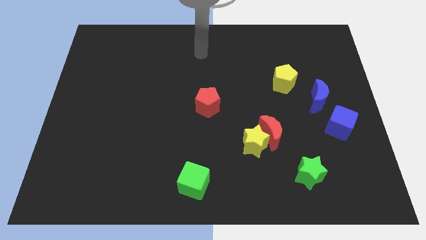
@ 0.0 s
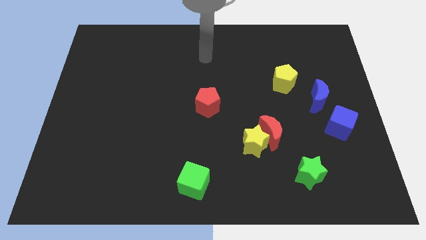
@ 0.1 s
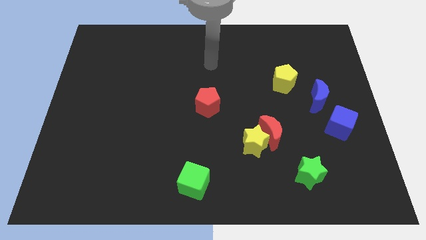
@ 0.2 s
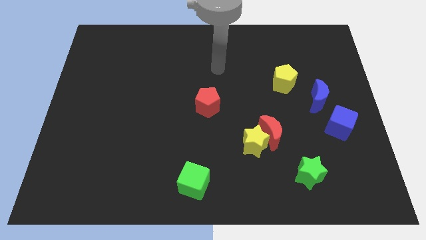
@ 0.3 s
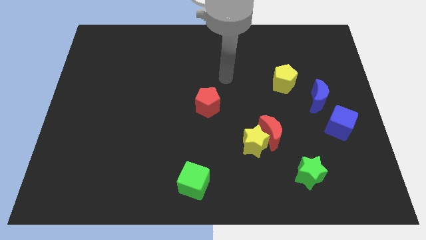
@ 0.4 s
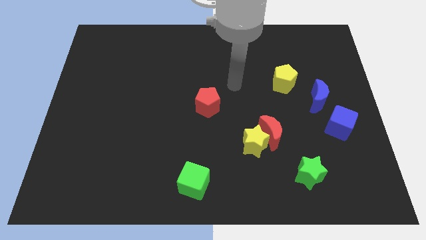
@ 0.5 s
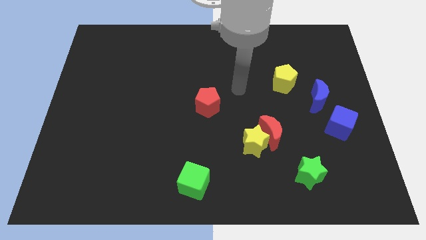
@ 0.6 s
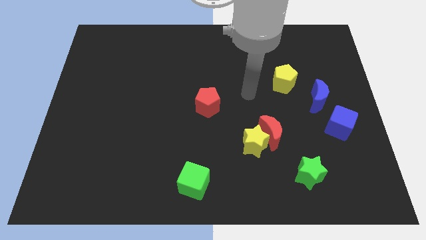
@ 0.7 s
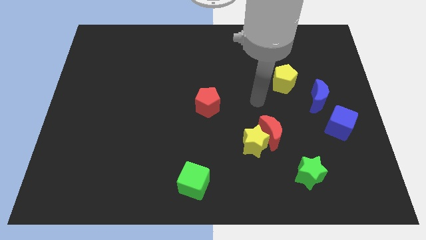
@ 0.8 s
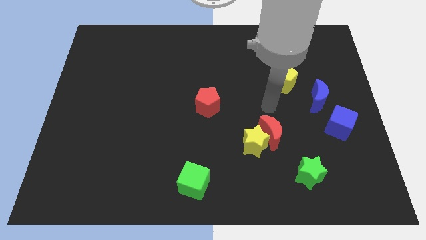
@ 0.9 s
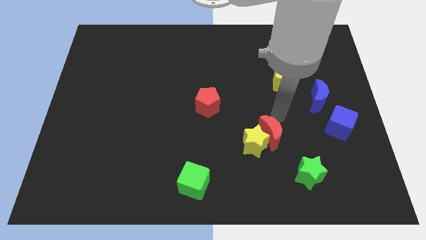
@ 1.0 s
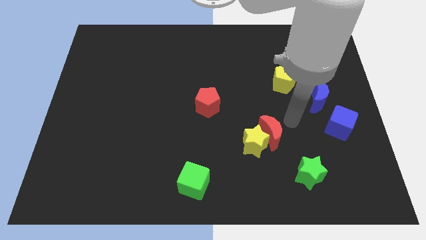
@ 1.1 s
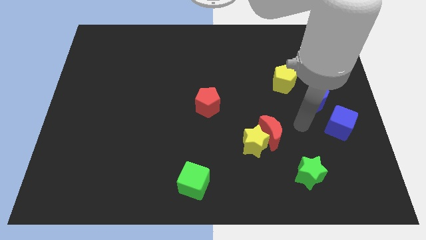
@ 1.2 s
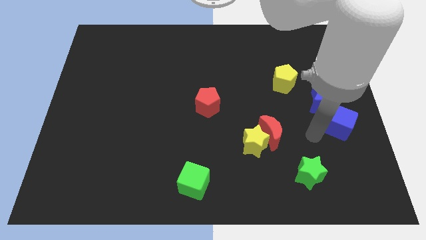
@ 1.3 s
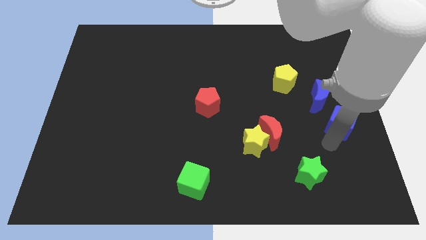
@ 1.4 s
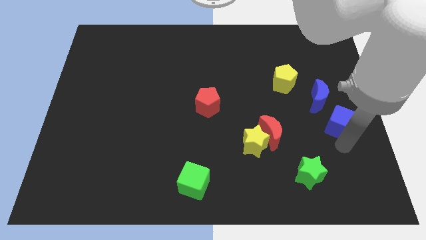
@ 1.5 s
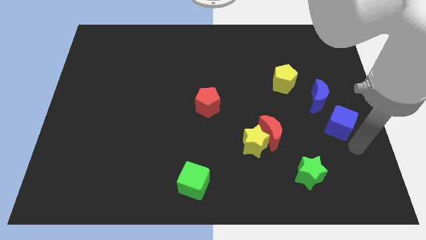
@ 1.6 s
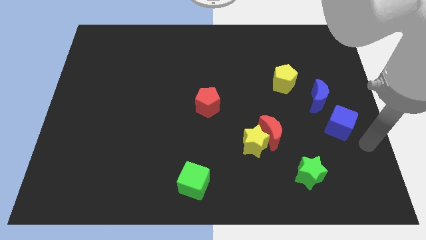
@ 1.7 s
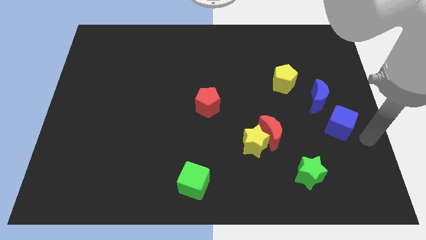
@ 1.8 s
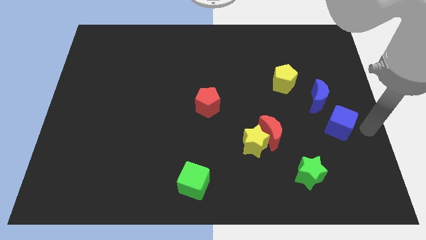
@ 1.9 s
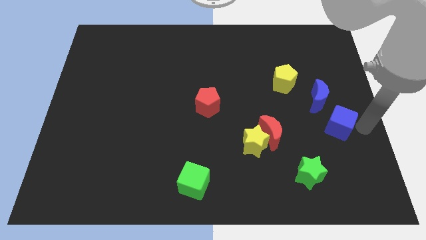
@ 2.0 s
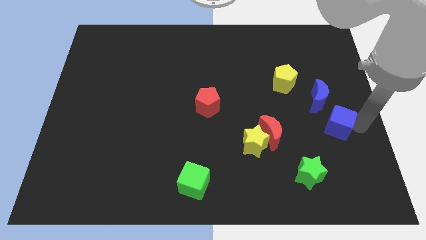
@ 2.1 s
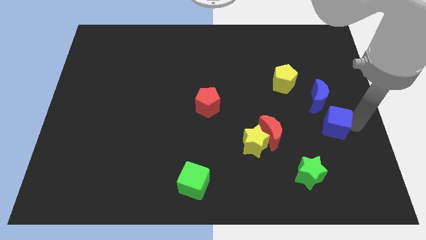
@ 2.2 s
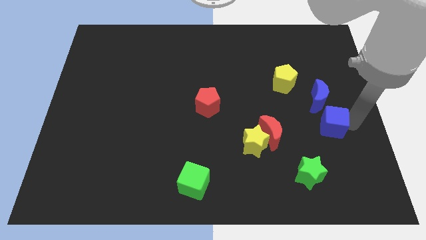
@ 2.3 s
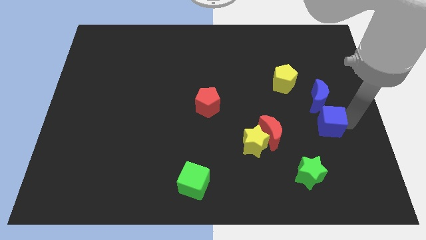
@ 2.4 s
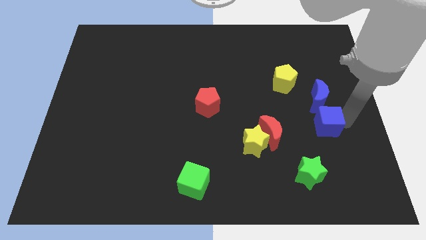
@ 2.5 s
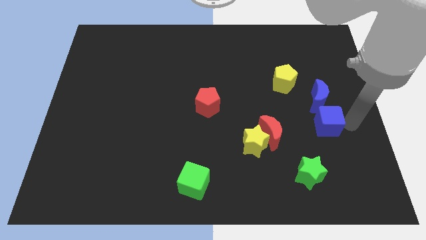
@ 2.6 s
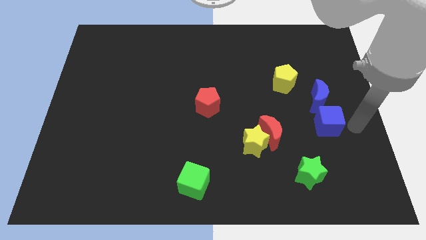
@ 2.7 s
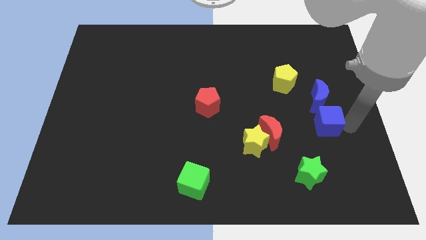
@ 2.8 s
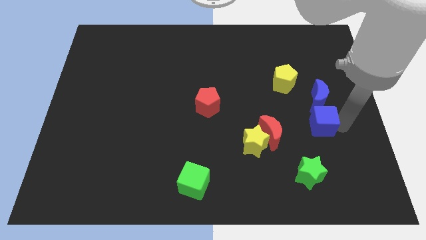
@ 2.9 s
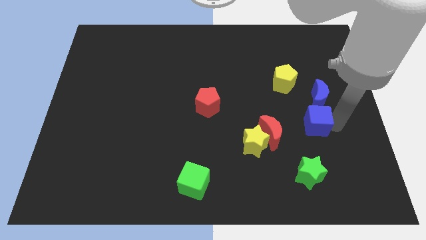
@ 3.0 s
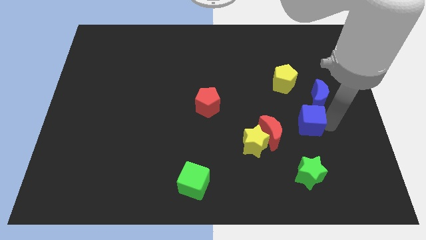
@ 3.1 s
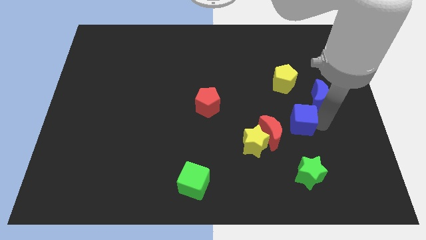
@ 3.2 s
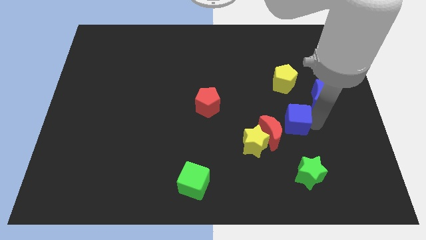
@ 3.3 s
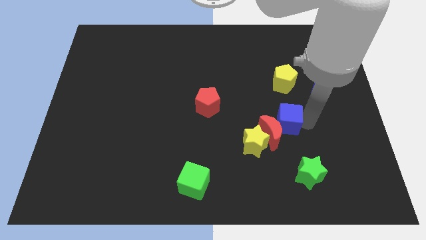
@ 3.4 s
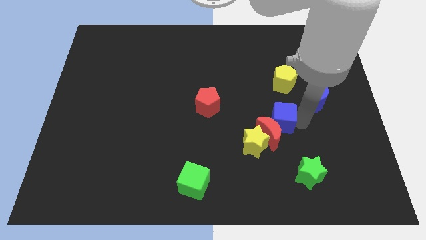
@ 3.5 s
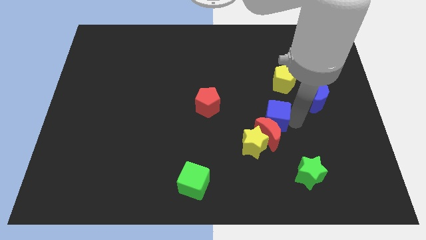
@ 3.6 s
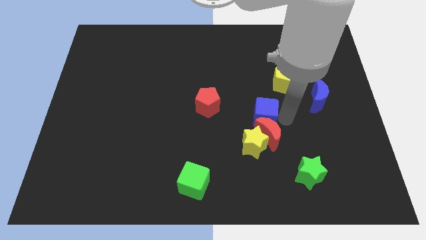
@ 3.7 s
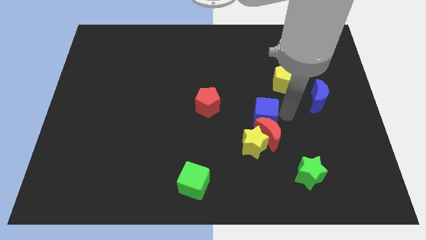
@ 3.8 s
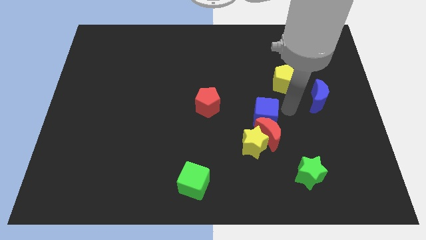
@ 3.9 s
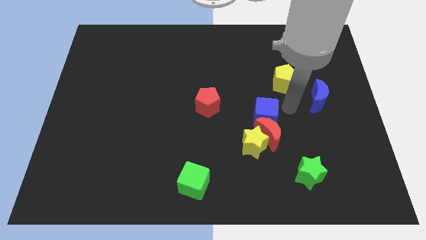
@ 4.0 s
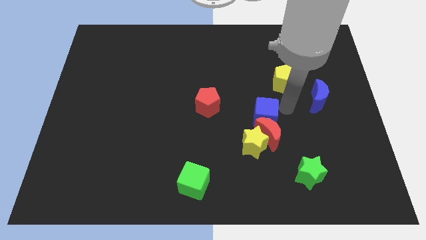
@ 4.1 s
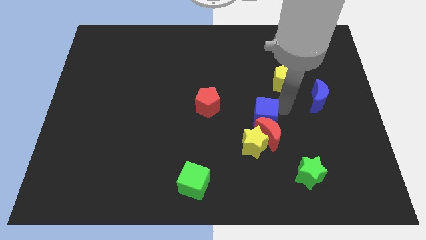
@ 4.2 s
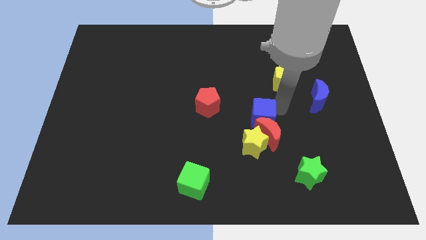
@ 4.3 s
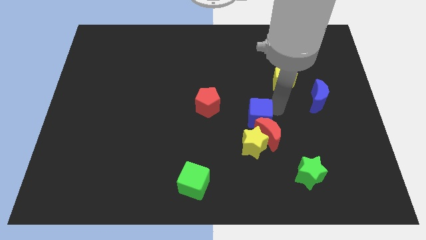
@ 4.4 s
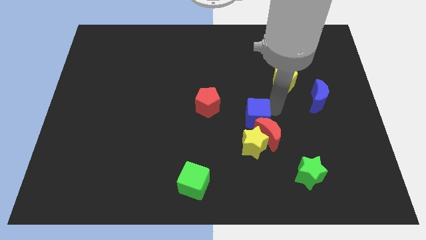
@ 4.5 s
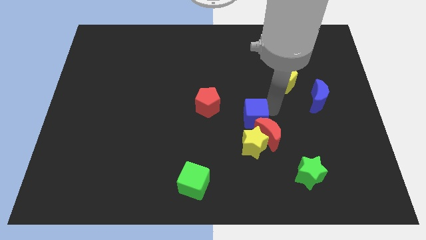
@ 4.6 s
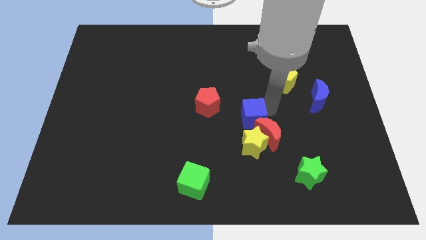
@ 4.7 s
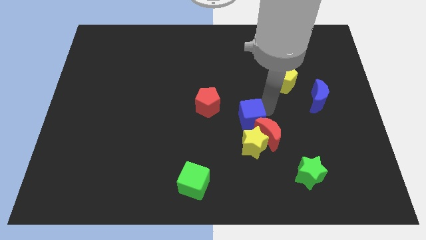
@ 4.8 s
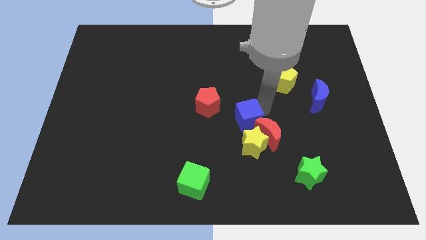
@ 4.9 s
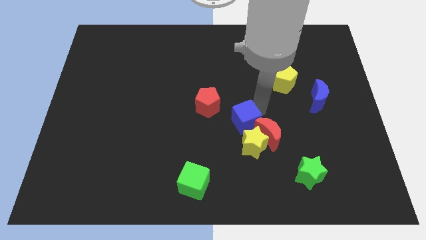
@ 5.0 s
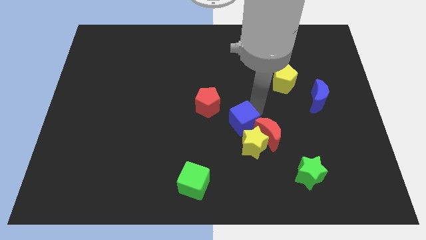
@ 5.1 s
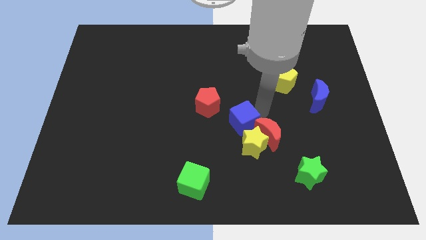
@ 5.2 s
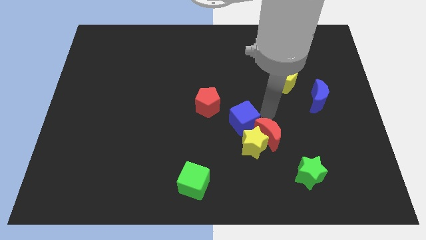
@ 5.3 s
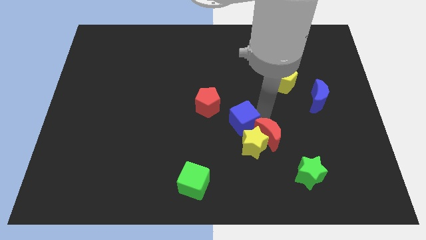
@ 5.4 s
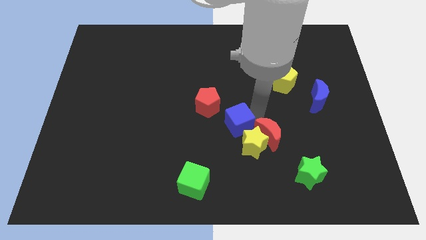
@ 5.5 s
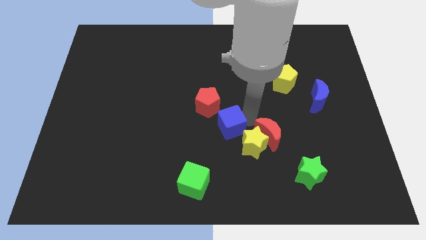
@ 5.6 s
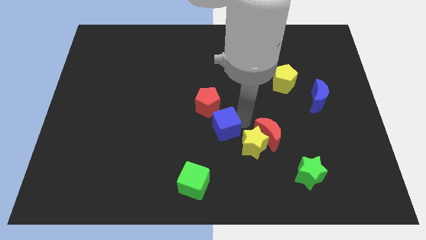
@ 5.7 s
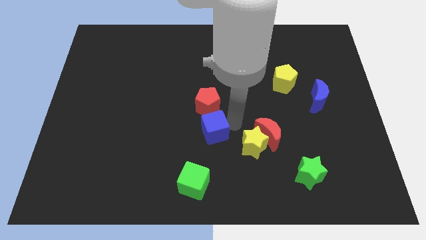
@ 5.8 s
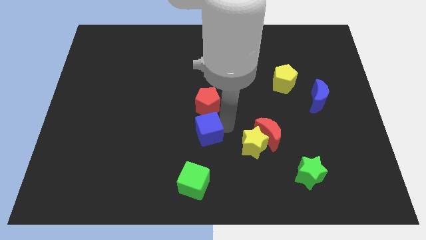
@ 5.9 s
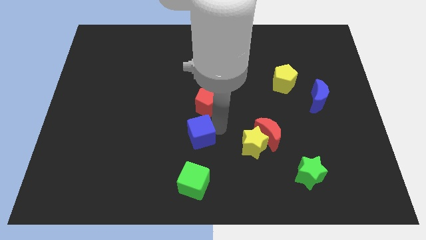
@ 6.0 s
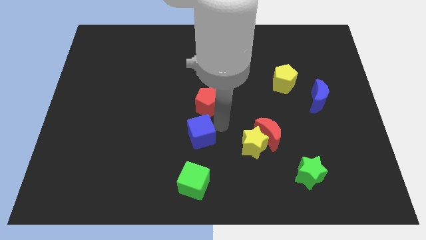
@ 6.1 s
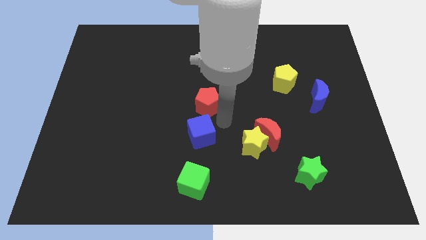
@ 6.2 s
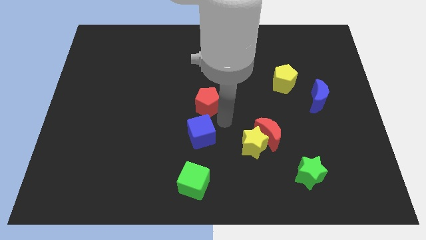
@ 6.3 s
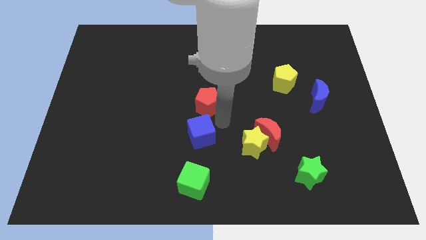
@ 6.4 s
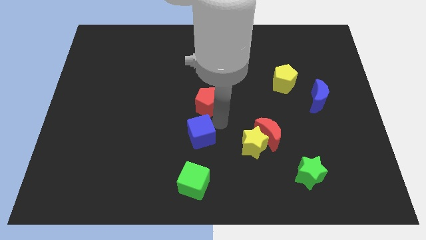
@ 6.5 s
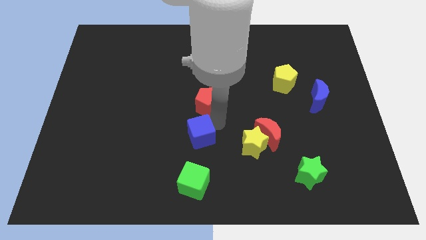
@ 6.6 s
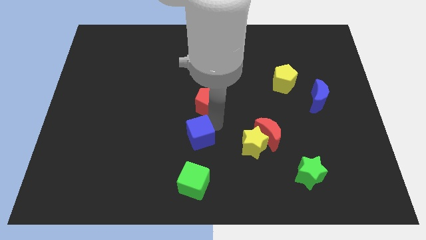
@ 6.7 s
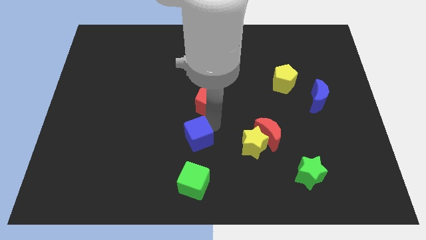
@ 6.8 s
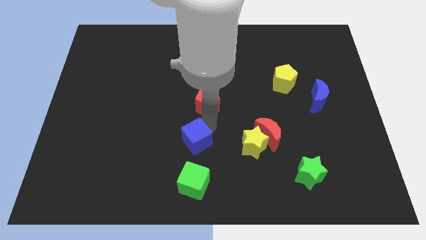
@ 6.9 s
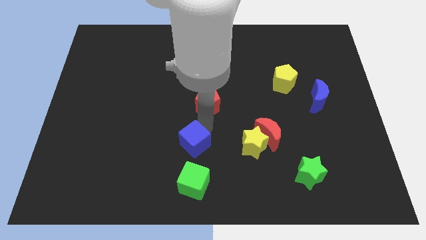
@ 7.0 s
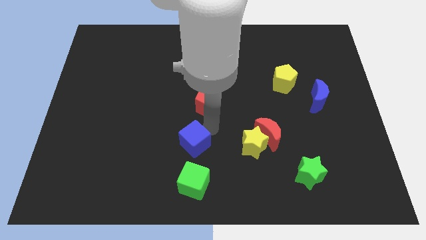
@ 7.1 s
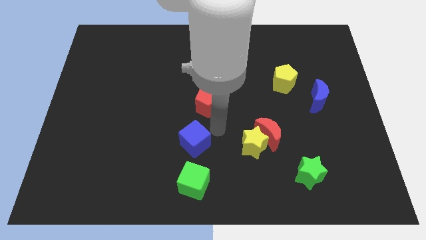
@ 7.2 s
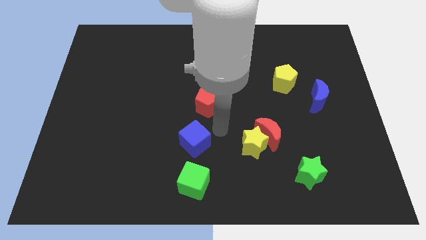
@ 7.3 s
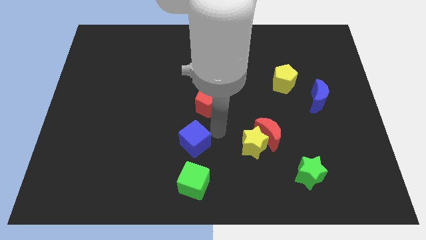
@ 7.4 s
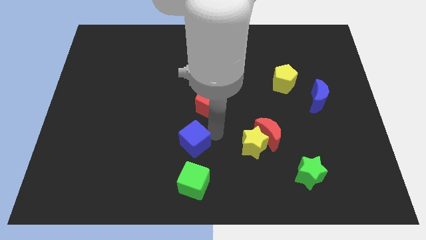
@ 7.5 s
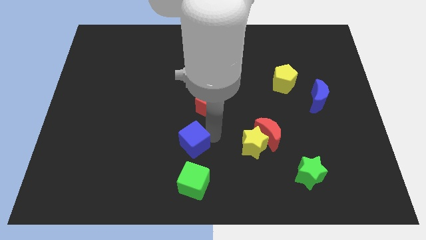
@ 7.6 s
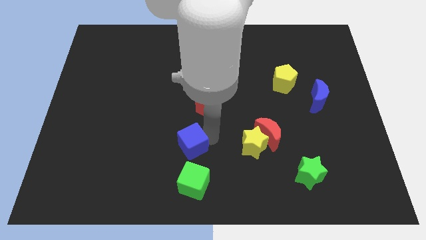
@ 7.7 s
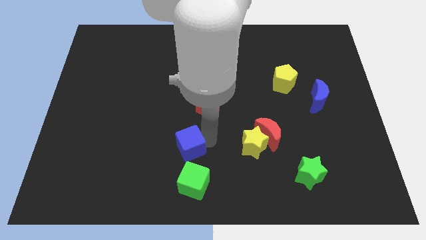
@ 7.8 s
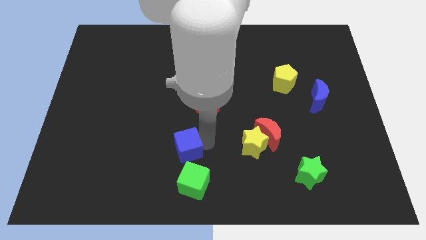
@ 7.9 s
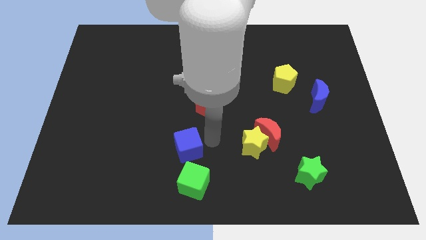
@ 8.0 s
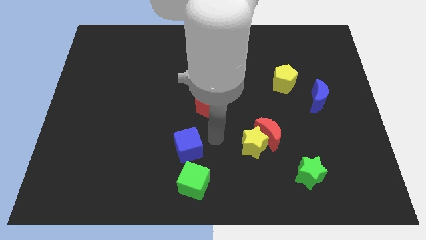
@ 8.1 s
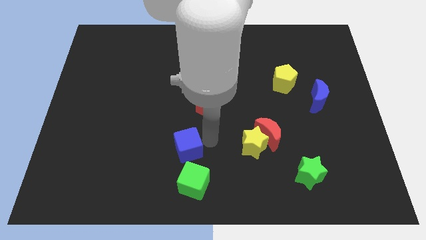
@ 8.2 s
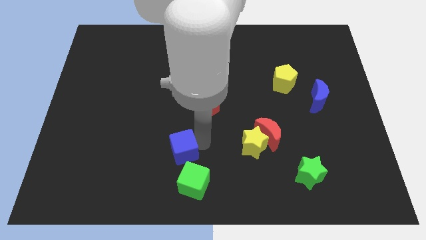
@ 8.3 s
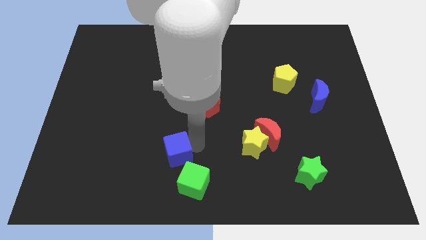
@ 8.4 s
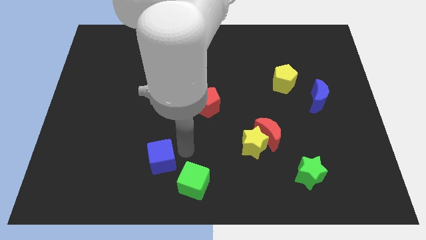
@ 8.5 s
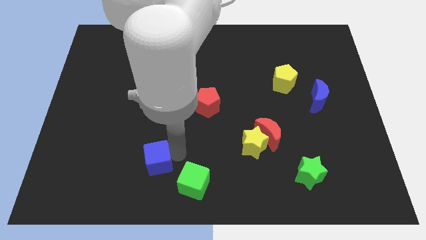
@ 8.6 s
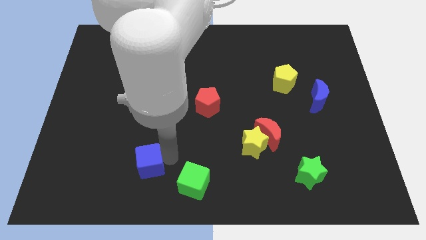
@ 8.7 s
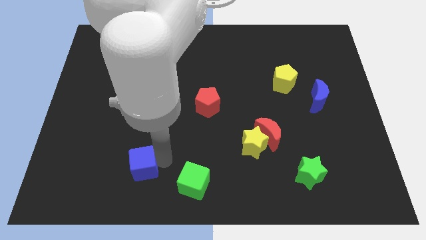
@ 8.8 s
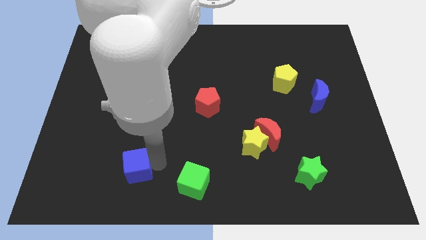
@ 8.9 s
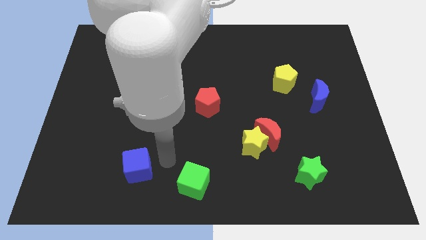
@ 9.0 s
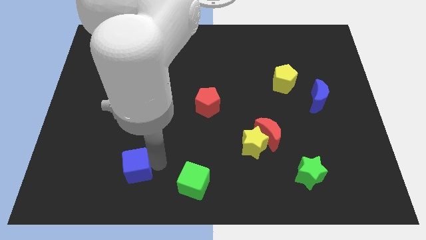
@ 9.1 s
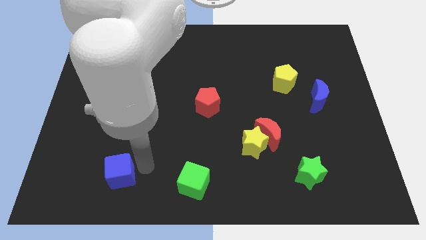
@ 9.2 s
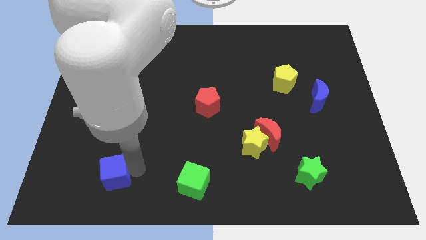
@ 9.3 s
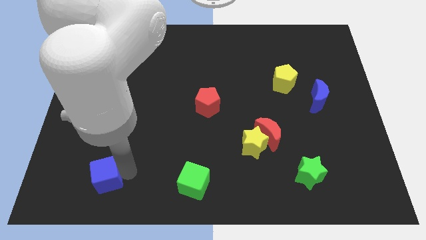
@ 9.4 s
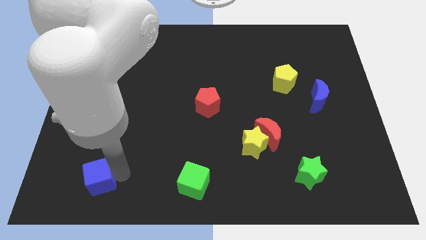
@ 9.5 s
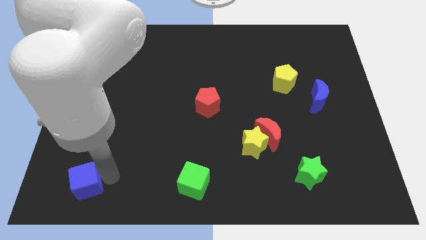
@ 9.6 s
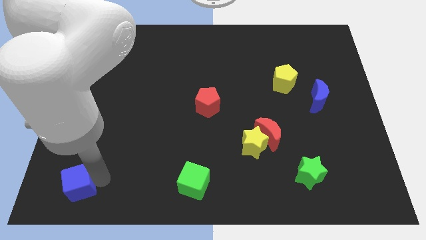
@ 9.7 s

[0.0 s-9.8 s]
move the blue cube to the lower left corner
